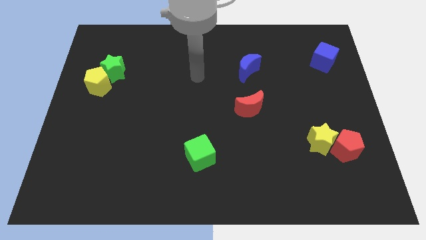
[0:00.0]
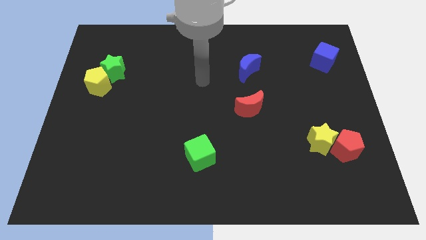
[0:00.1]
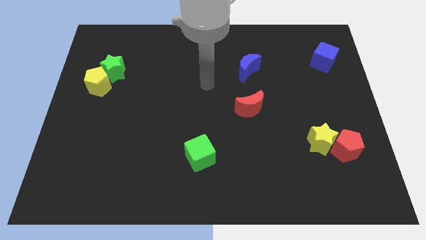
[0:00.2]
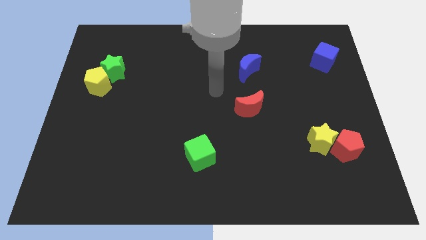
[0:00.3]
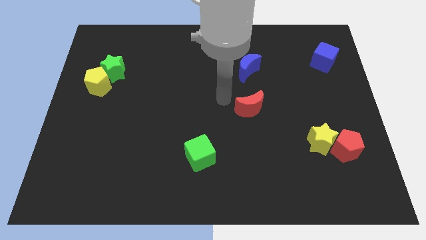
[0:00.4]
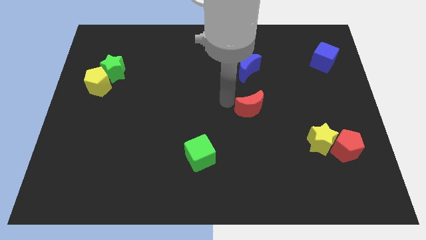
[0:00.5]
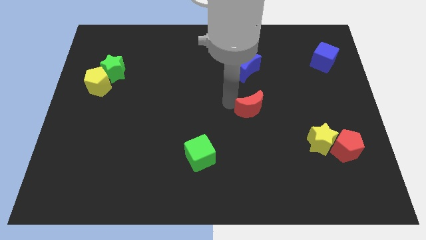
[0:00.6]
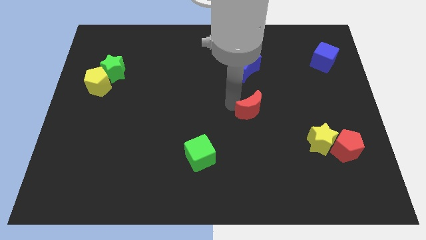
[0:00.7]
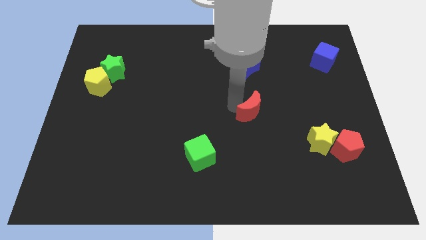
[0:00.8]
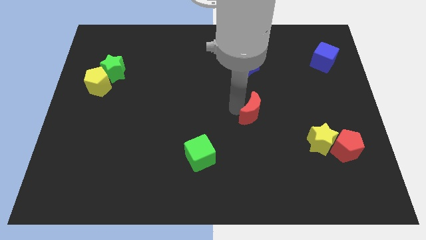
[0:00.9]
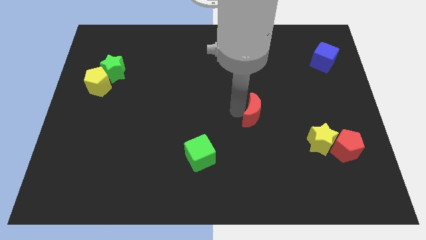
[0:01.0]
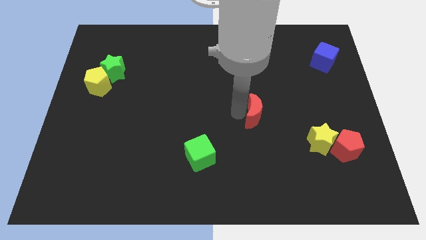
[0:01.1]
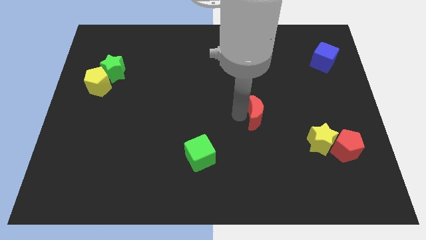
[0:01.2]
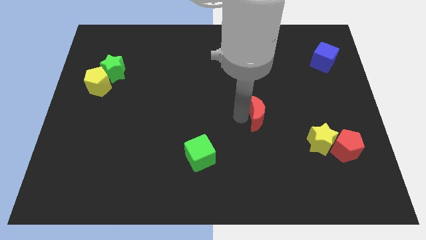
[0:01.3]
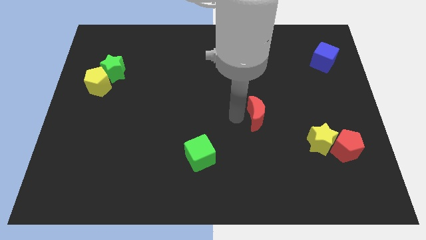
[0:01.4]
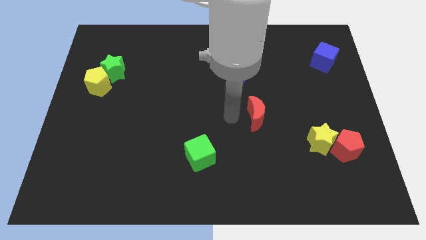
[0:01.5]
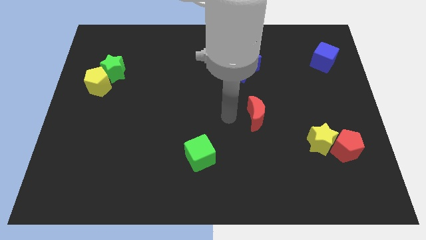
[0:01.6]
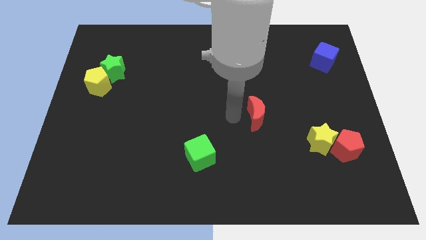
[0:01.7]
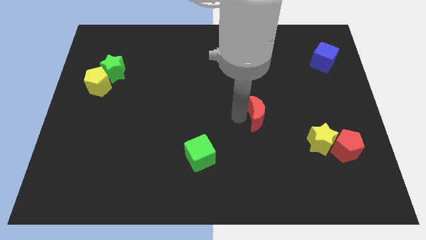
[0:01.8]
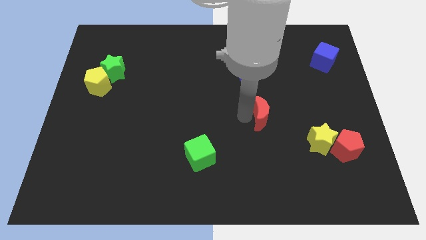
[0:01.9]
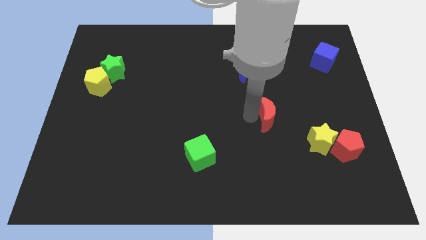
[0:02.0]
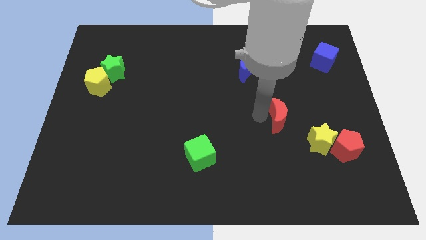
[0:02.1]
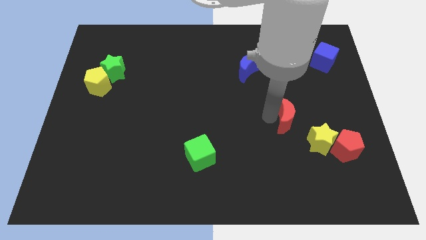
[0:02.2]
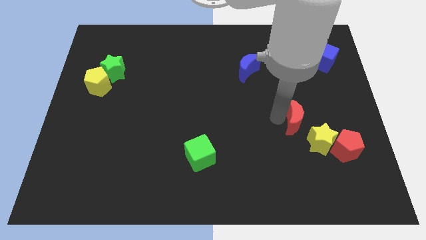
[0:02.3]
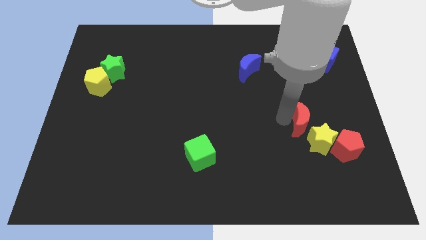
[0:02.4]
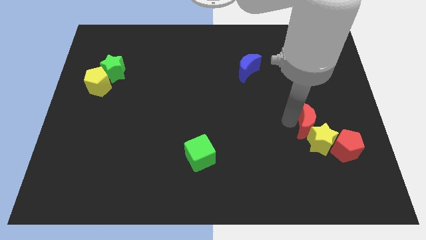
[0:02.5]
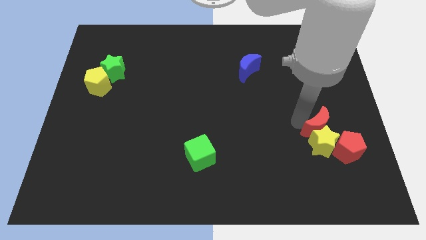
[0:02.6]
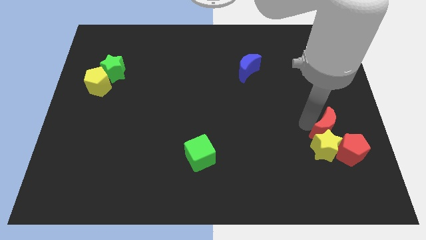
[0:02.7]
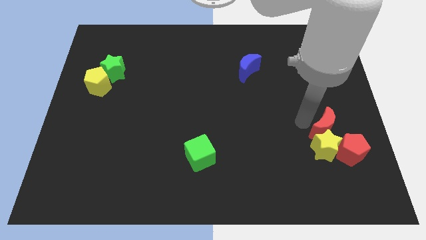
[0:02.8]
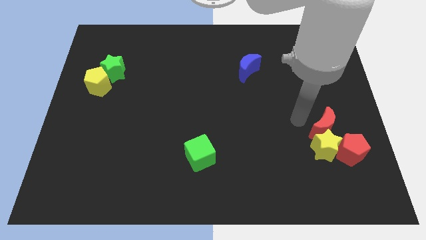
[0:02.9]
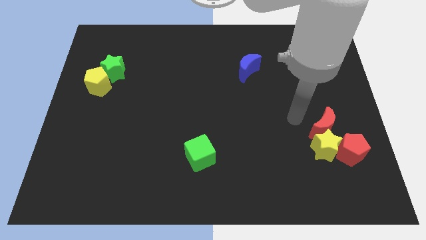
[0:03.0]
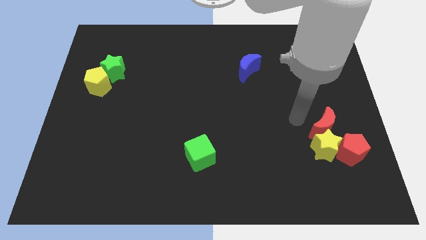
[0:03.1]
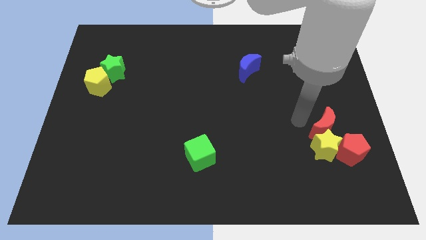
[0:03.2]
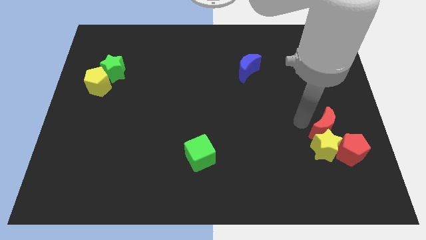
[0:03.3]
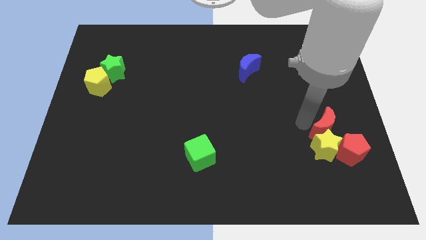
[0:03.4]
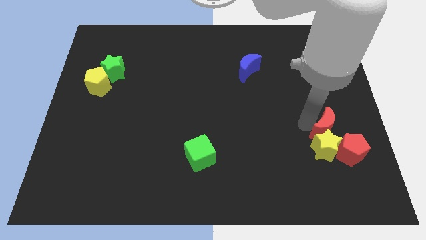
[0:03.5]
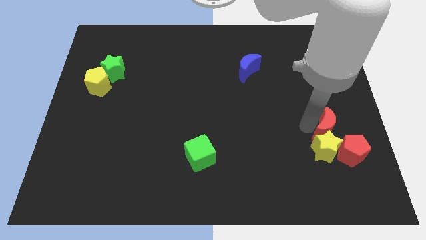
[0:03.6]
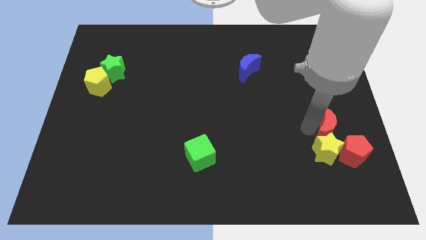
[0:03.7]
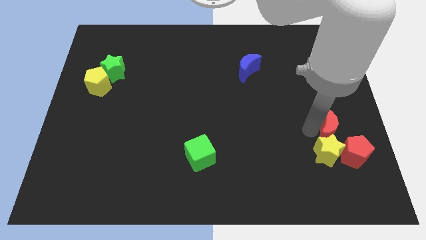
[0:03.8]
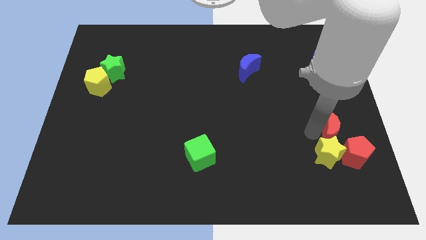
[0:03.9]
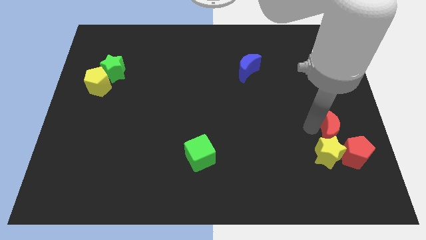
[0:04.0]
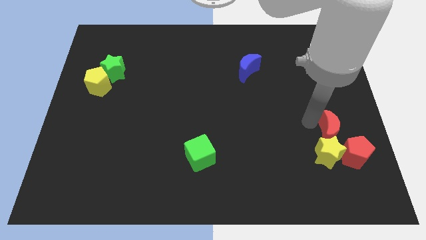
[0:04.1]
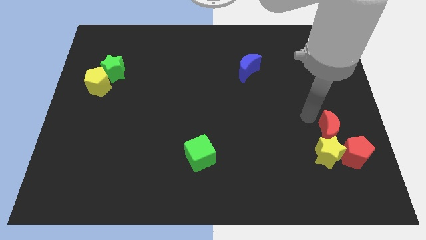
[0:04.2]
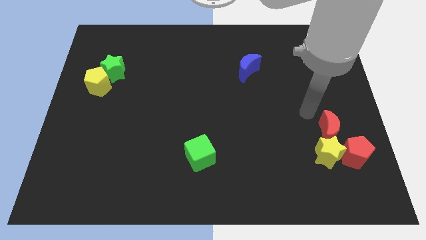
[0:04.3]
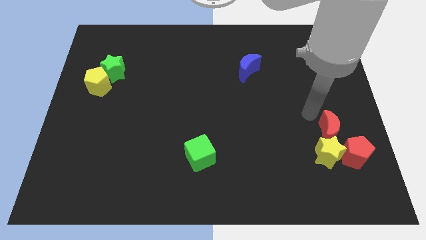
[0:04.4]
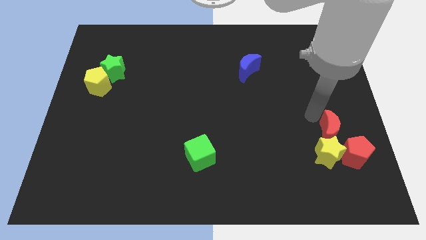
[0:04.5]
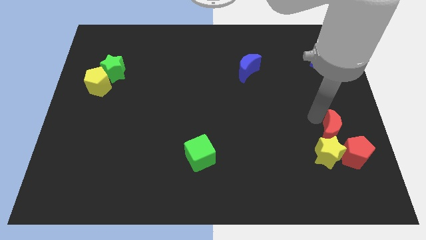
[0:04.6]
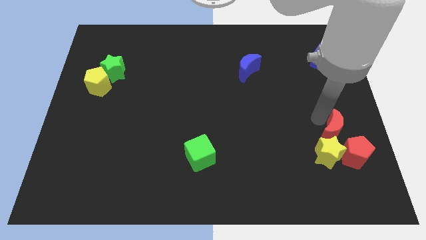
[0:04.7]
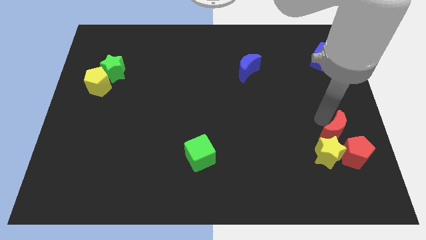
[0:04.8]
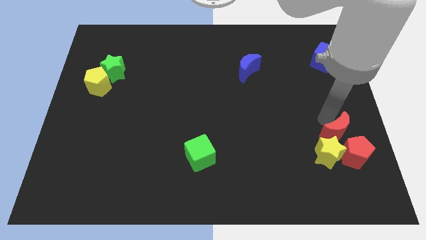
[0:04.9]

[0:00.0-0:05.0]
put the red moon next to the red pentagon

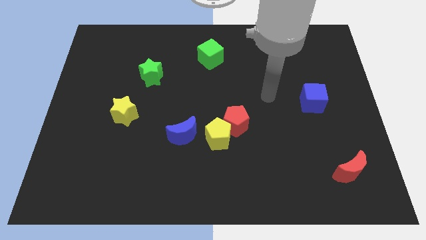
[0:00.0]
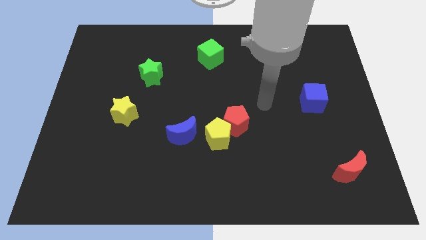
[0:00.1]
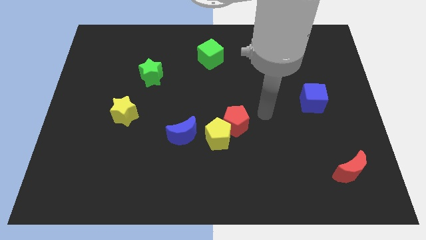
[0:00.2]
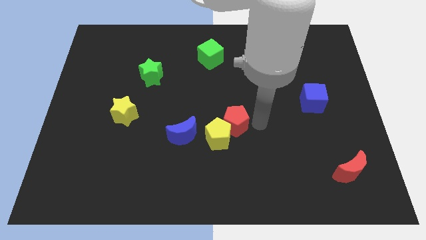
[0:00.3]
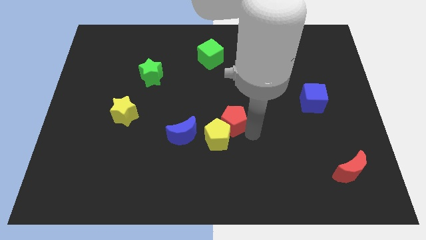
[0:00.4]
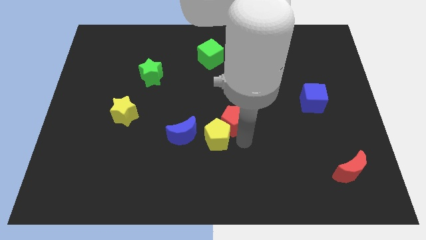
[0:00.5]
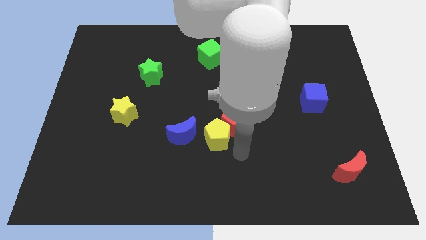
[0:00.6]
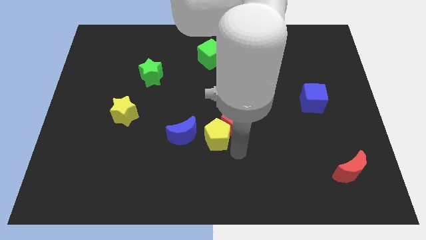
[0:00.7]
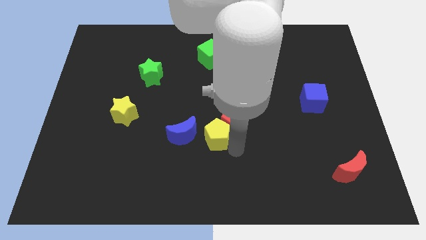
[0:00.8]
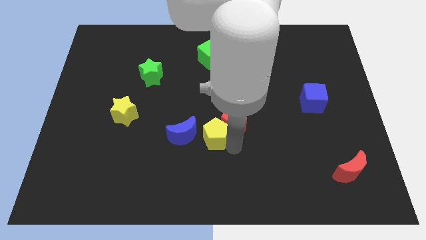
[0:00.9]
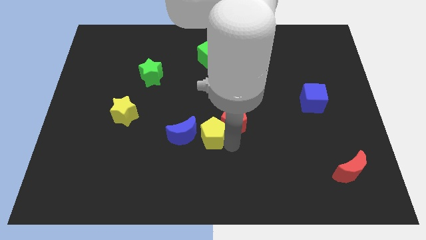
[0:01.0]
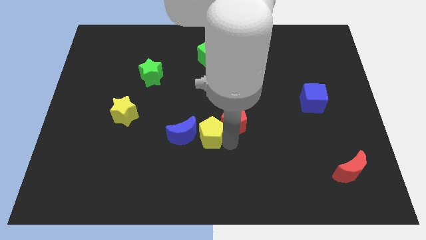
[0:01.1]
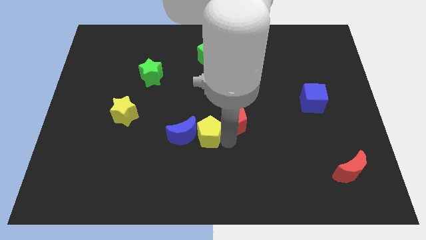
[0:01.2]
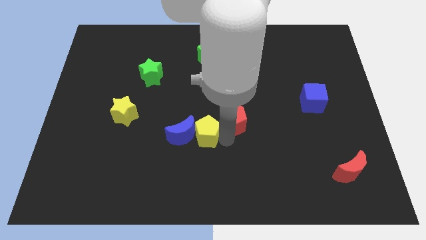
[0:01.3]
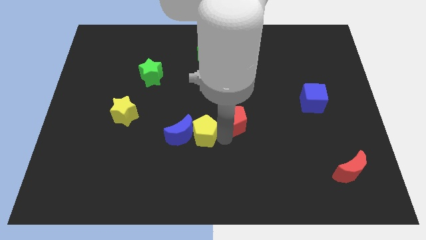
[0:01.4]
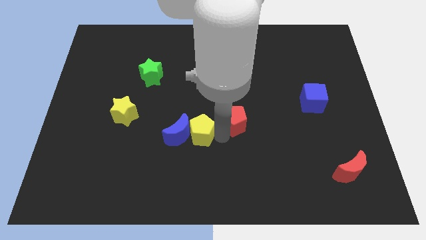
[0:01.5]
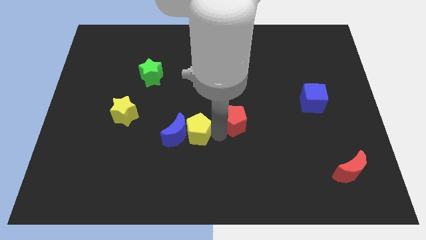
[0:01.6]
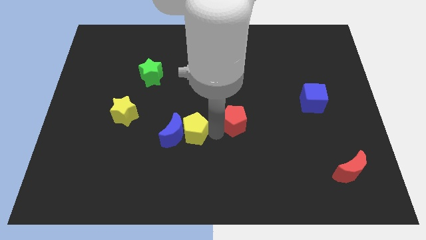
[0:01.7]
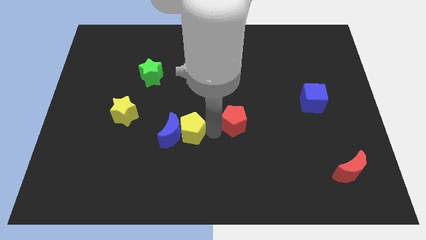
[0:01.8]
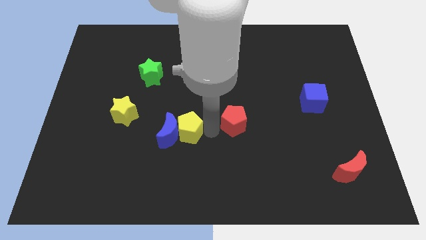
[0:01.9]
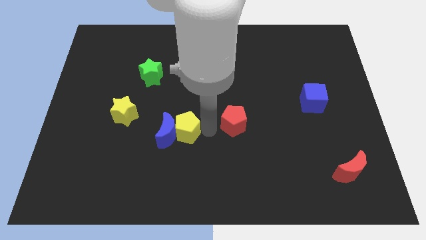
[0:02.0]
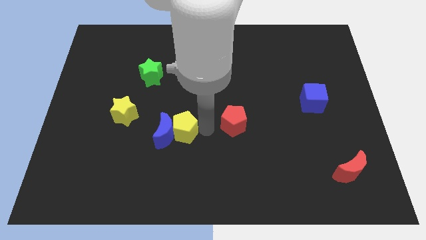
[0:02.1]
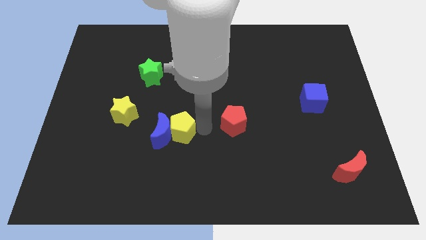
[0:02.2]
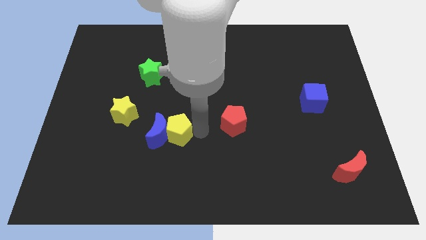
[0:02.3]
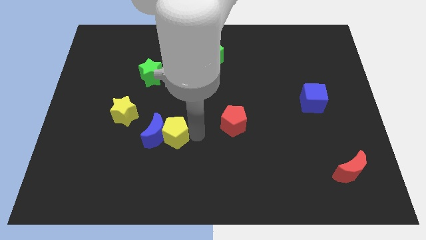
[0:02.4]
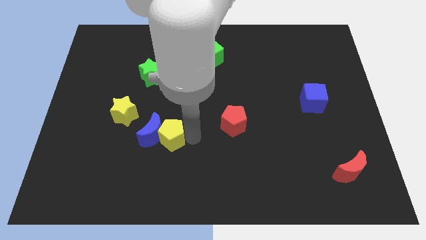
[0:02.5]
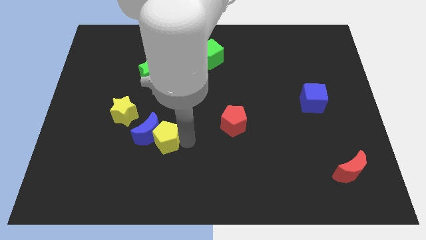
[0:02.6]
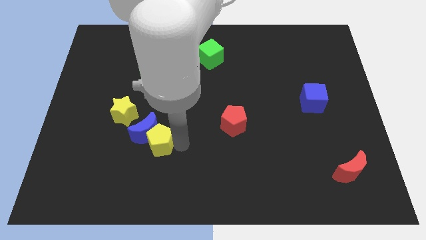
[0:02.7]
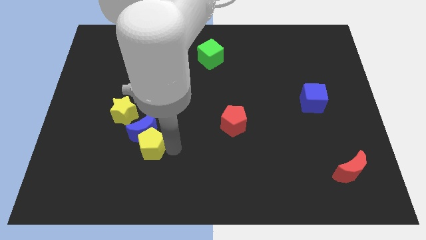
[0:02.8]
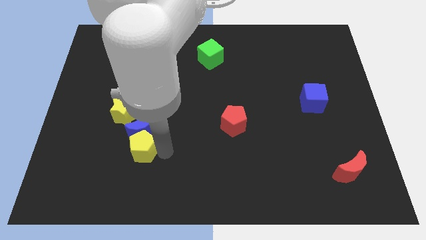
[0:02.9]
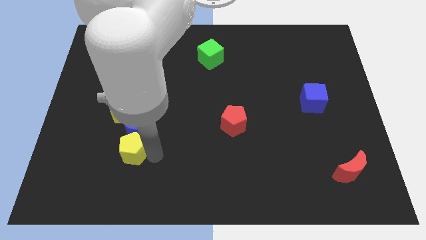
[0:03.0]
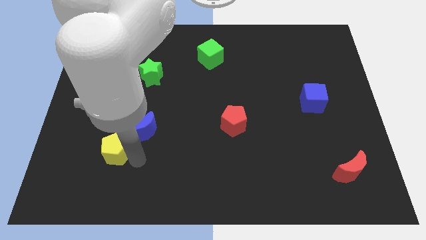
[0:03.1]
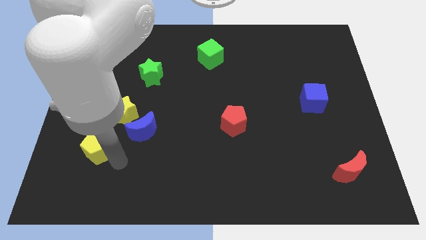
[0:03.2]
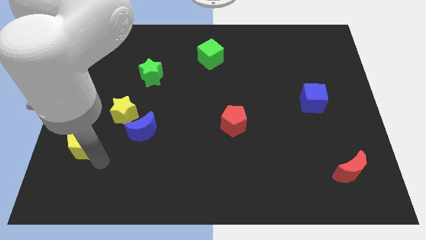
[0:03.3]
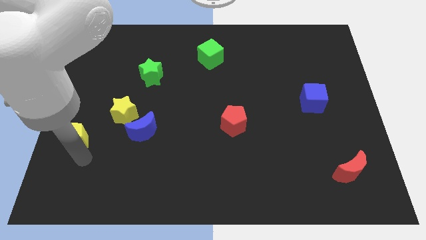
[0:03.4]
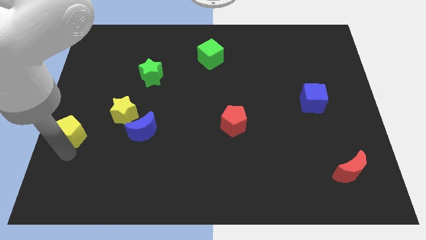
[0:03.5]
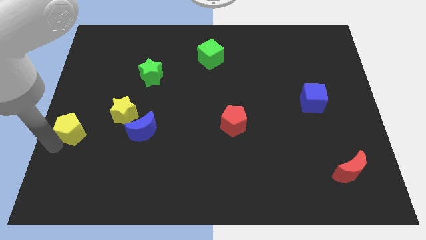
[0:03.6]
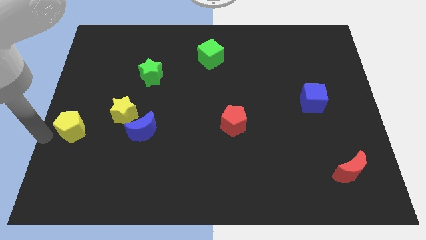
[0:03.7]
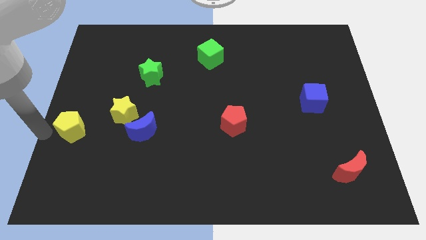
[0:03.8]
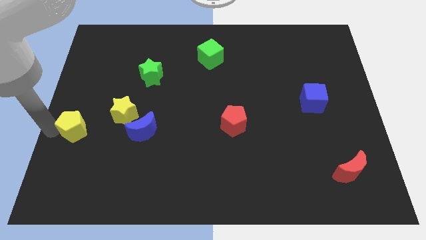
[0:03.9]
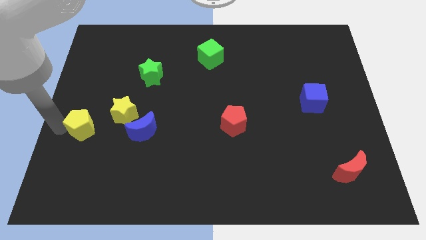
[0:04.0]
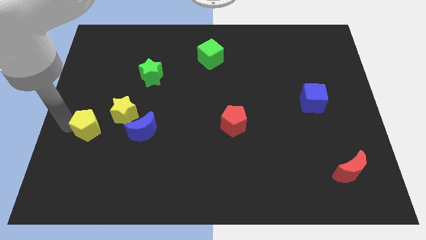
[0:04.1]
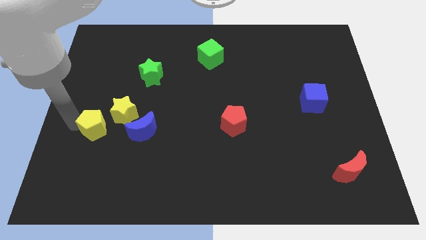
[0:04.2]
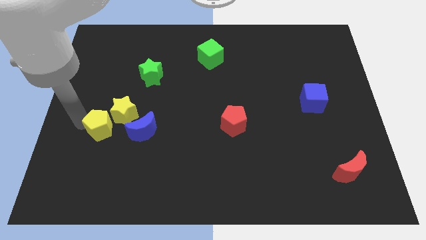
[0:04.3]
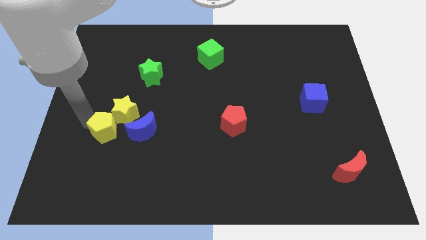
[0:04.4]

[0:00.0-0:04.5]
slide the yellow pentagon towards the yellow star
